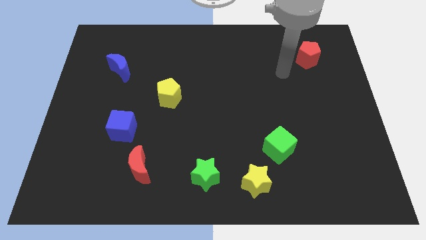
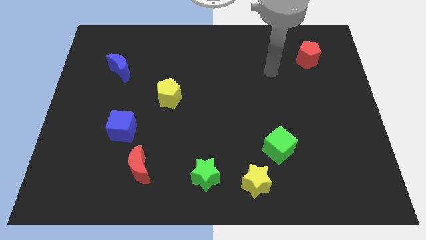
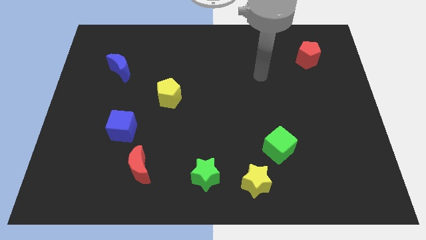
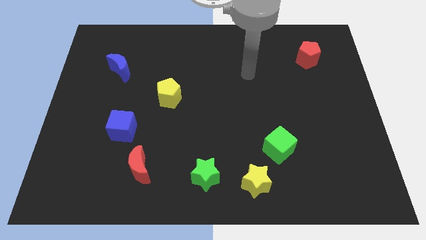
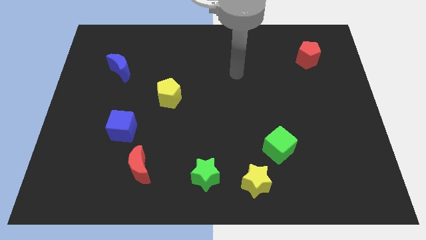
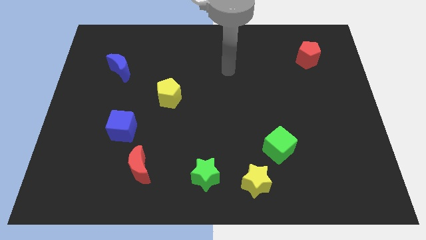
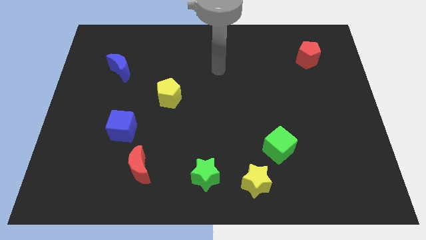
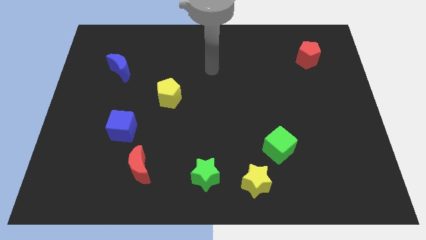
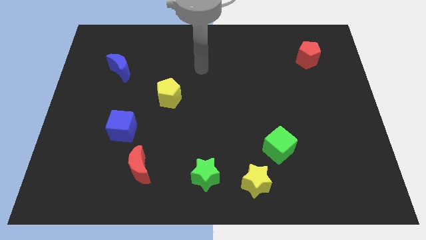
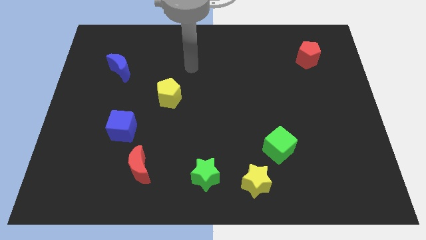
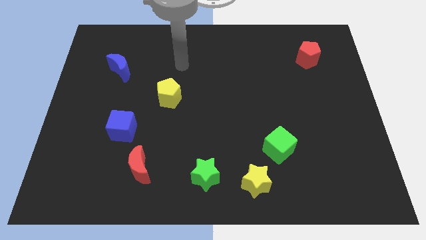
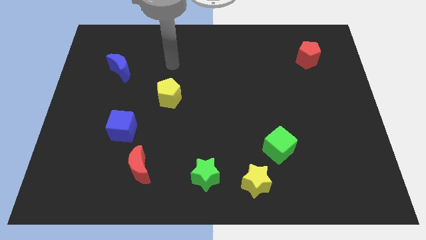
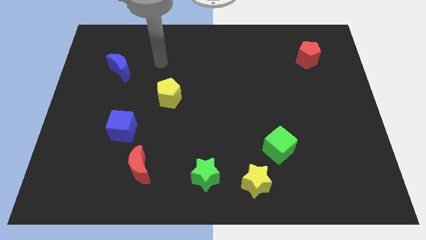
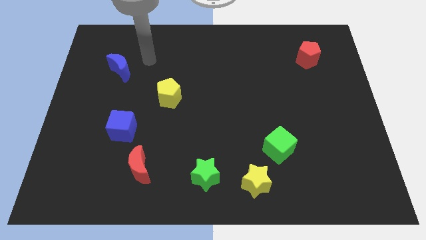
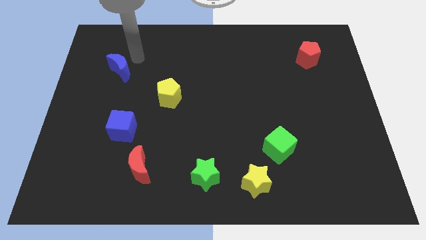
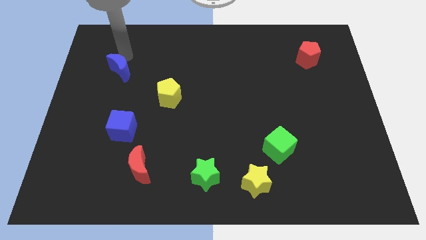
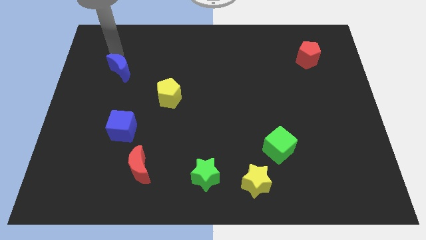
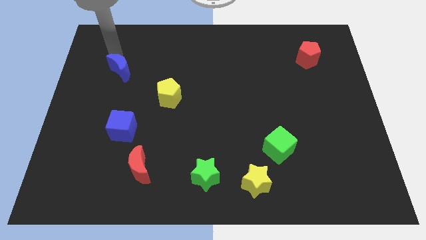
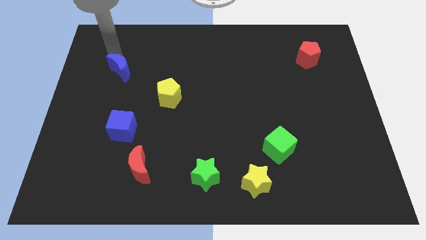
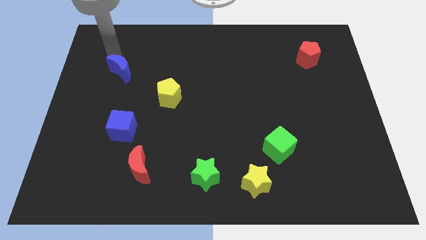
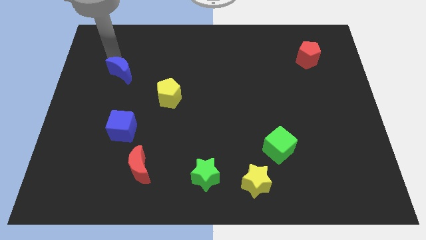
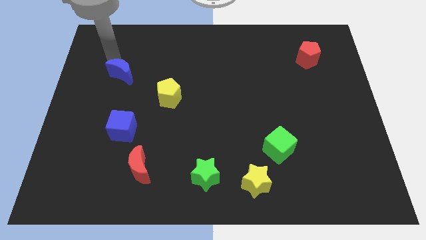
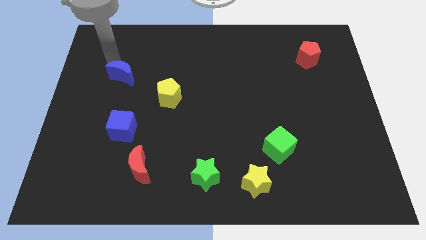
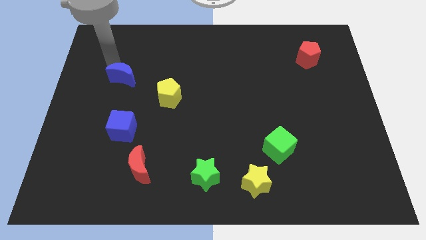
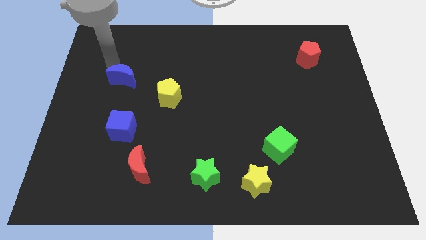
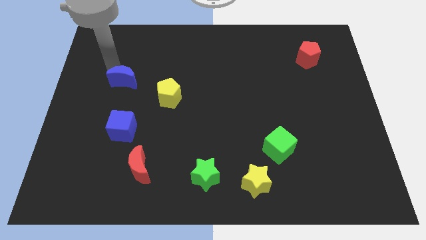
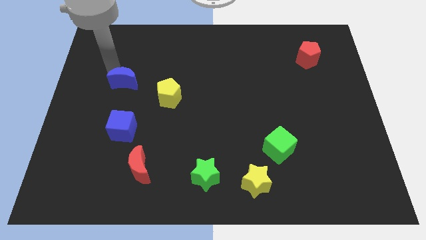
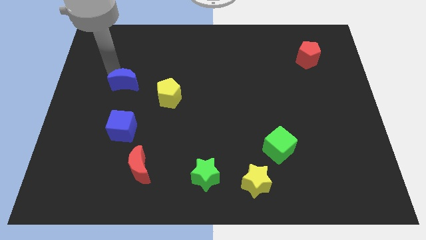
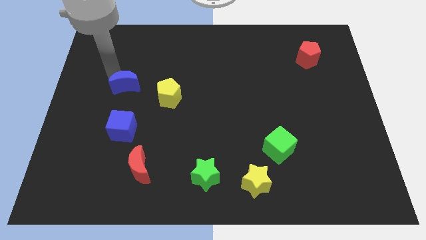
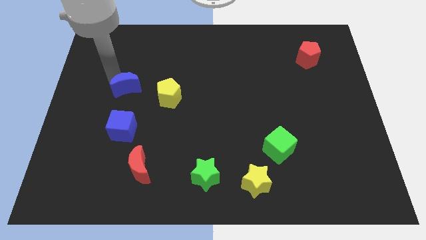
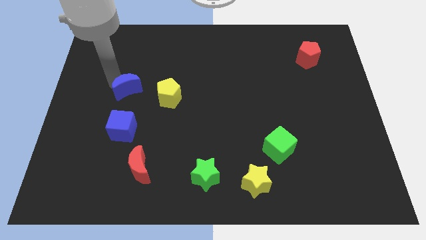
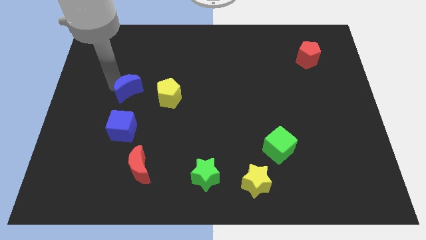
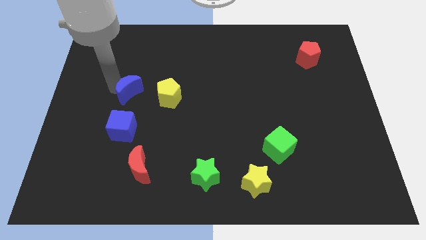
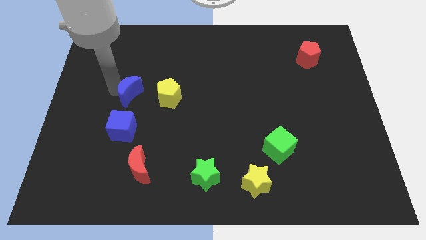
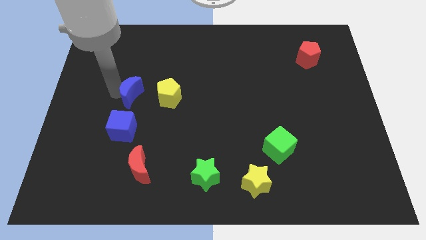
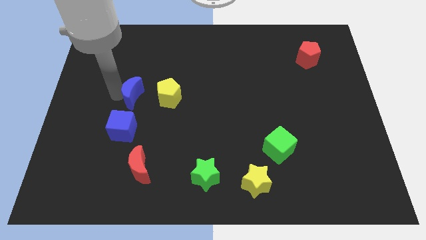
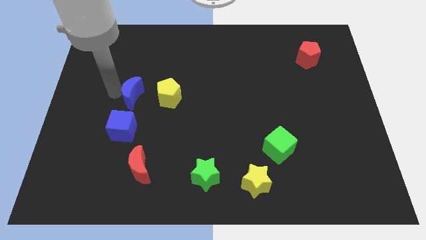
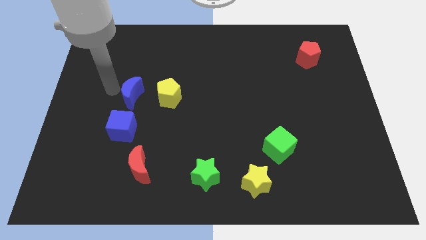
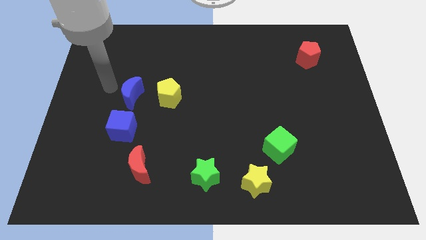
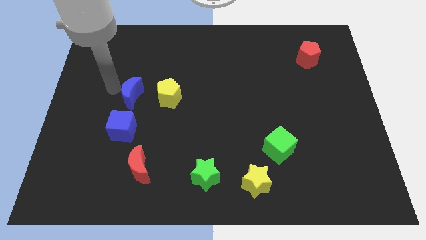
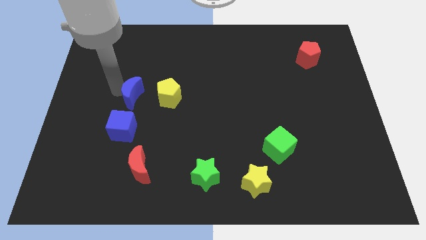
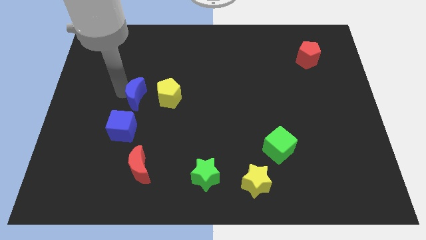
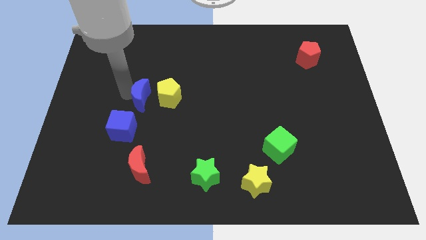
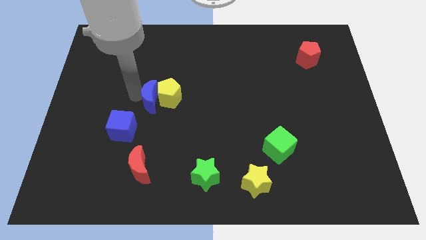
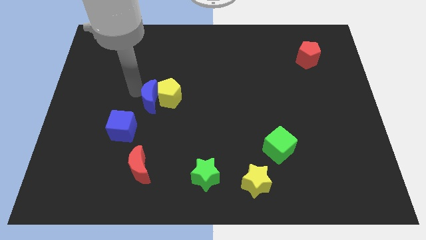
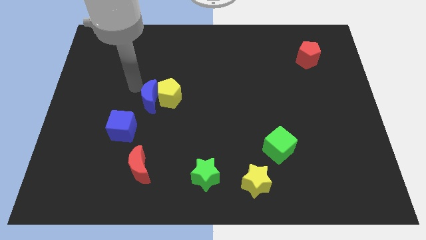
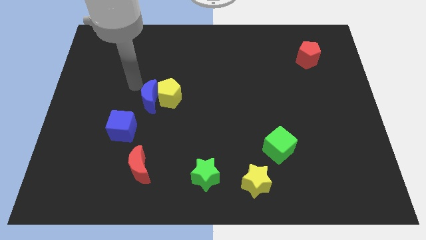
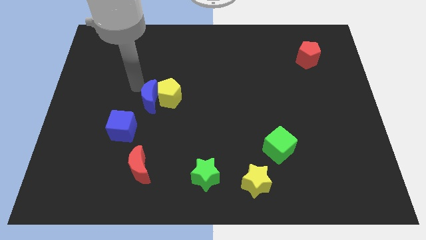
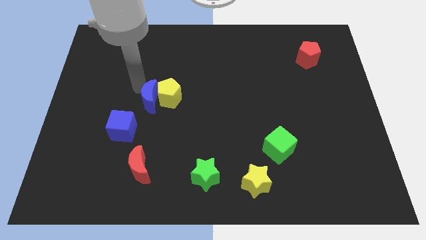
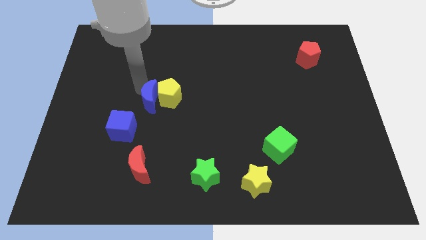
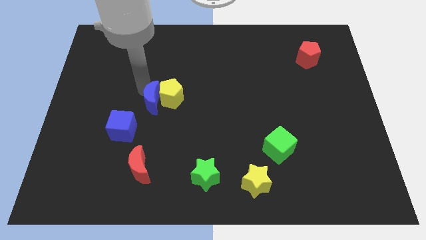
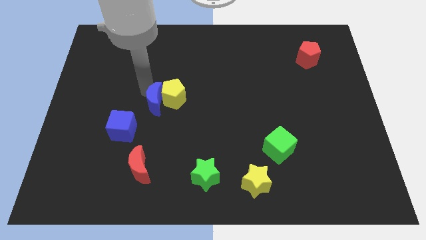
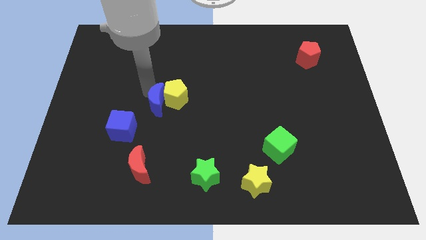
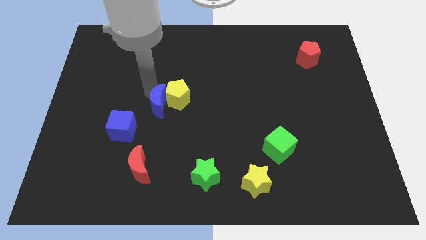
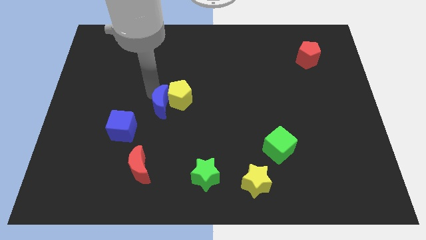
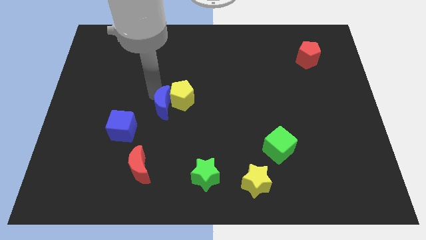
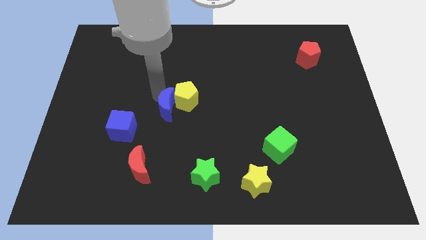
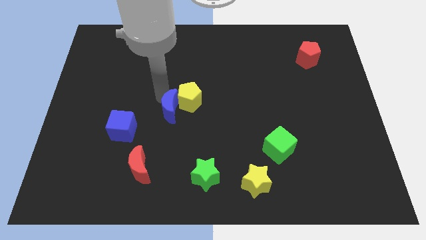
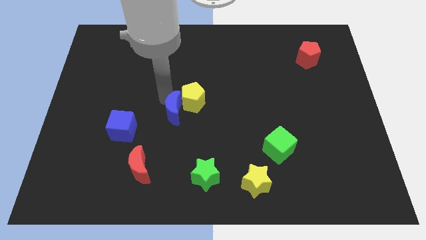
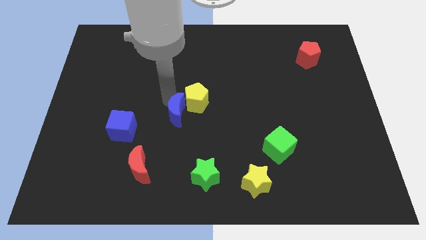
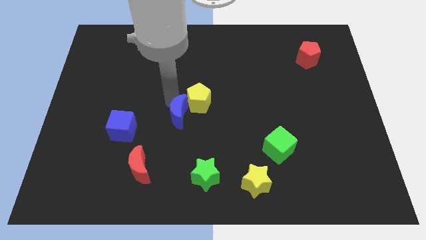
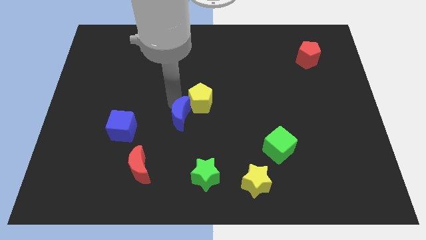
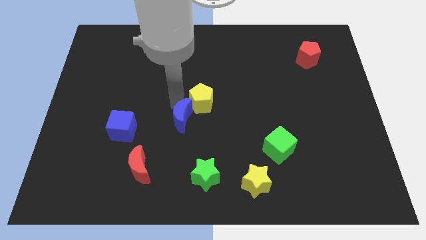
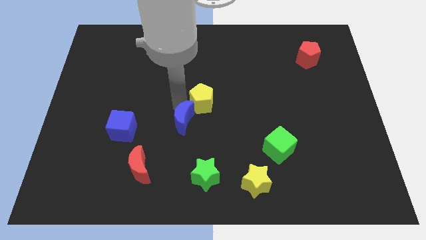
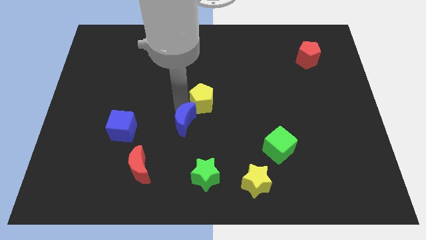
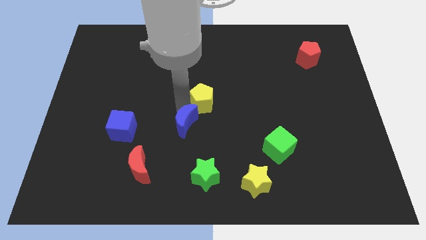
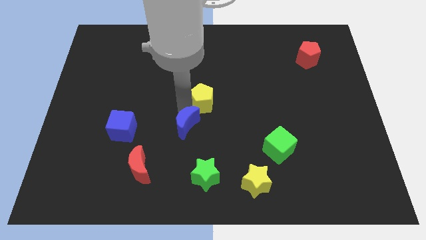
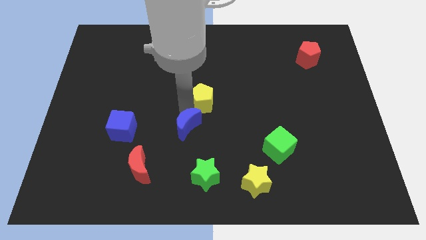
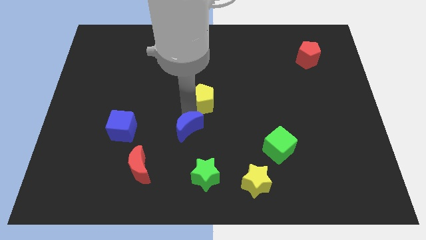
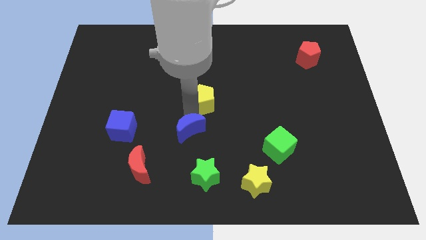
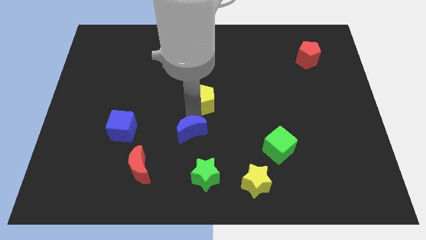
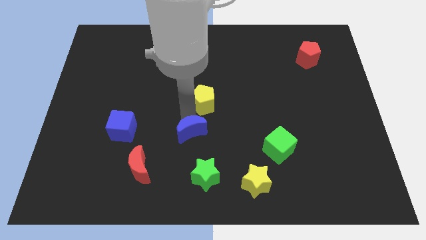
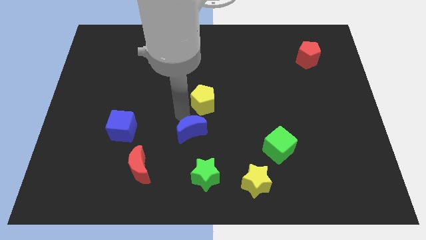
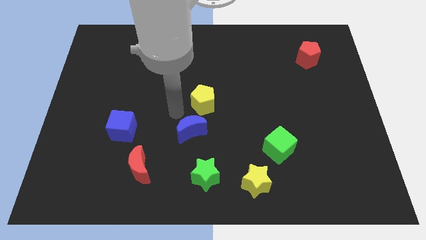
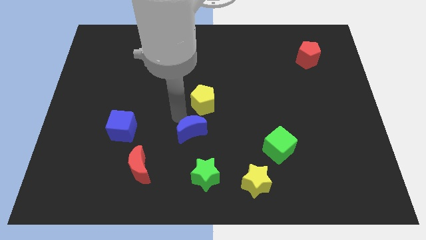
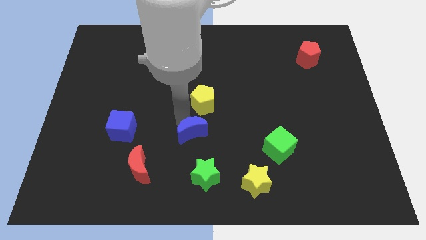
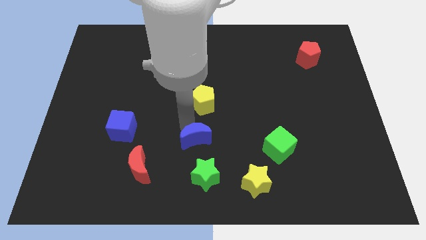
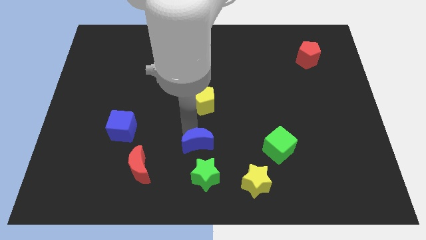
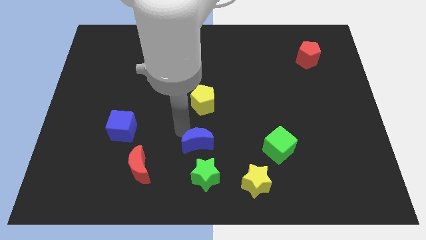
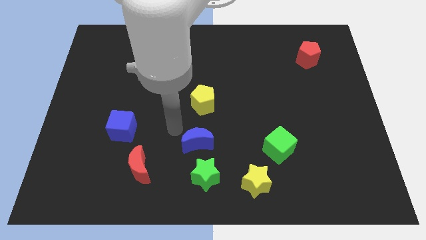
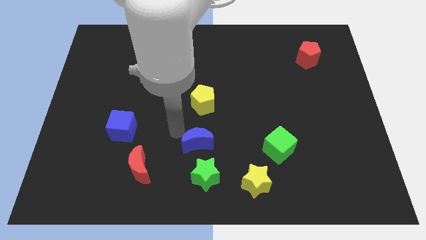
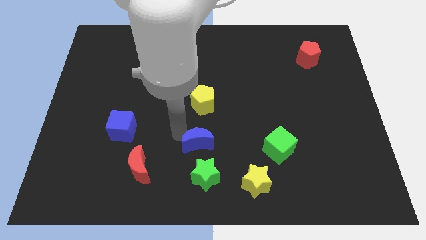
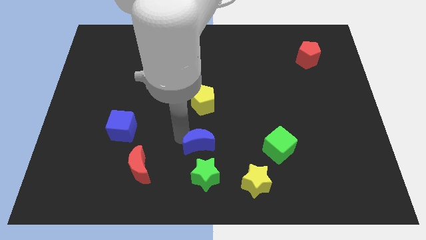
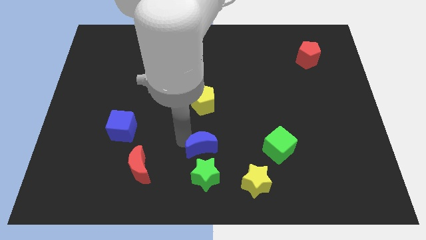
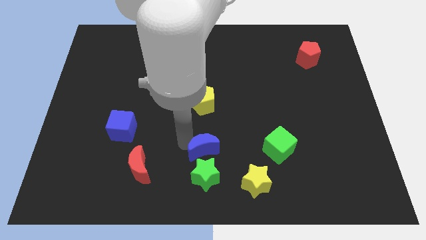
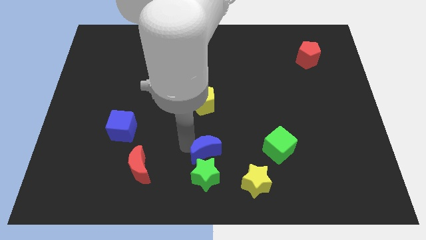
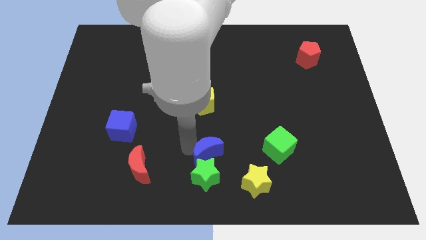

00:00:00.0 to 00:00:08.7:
push the blue moon to the top left side of the yellow star
